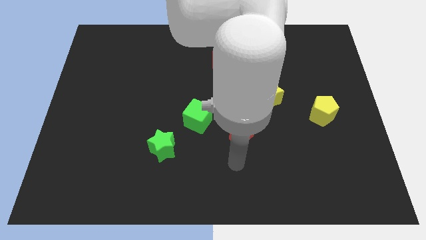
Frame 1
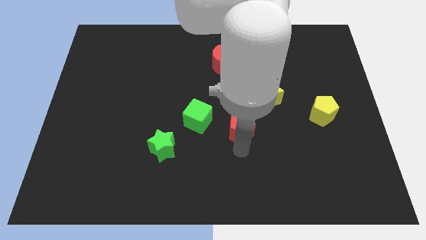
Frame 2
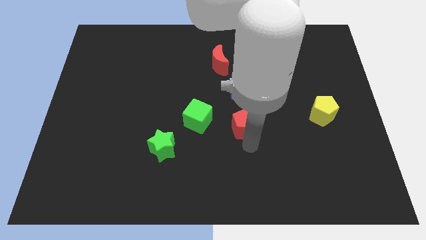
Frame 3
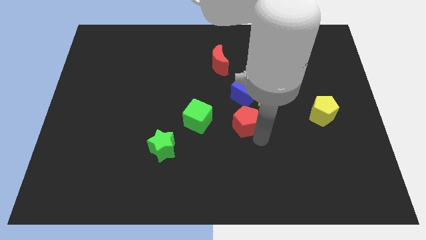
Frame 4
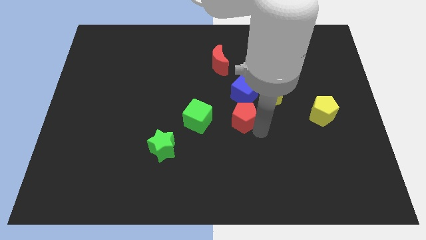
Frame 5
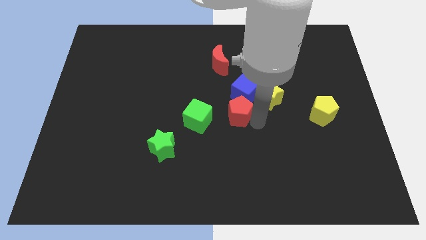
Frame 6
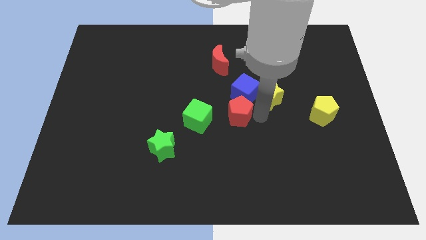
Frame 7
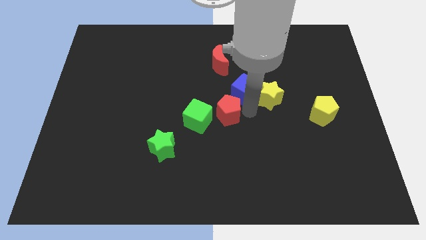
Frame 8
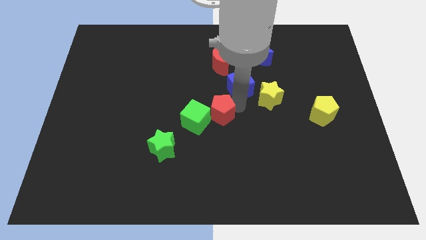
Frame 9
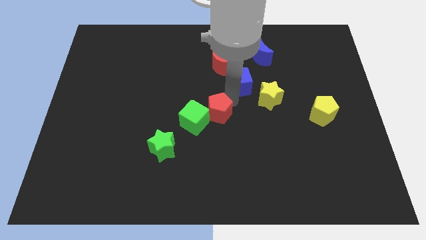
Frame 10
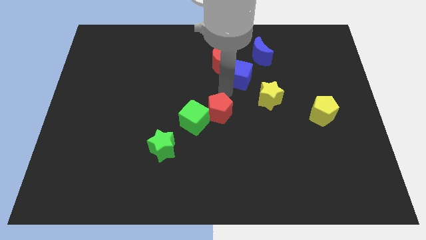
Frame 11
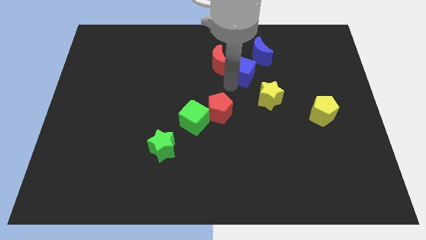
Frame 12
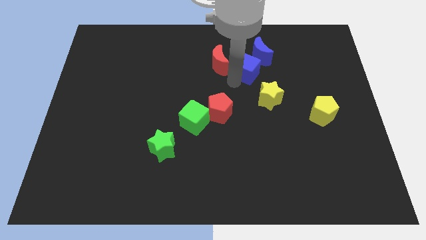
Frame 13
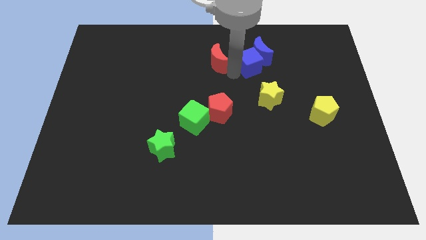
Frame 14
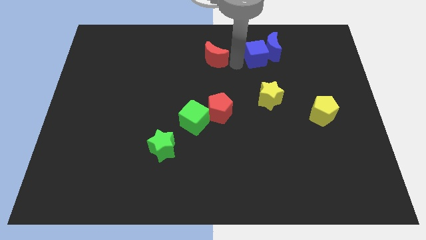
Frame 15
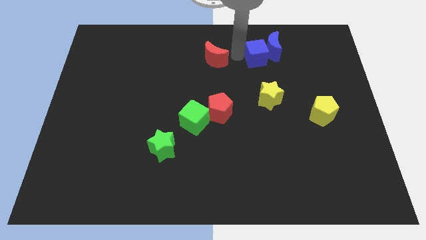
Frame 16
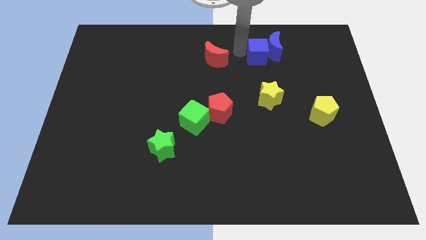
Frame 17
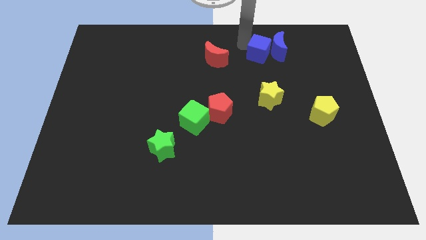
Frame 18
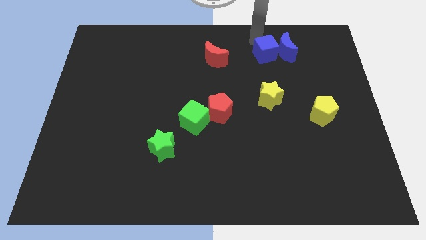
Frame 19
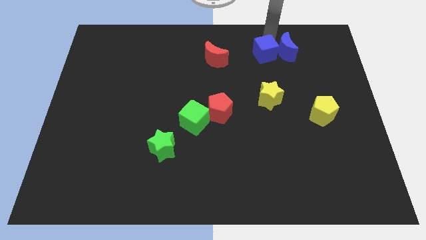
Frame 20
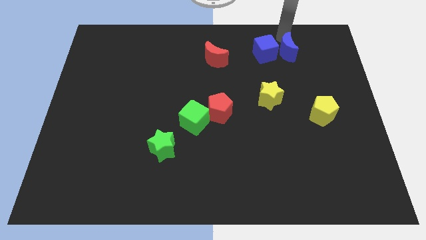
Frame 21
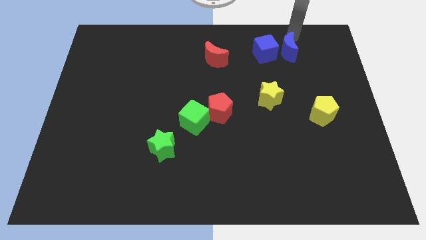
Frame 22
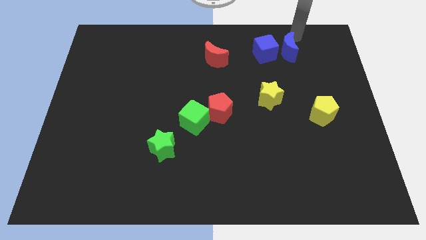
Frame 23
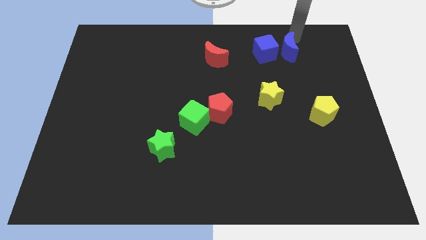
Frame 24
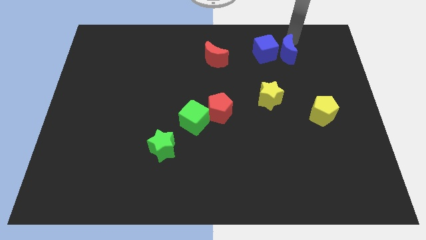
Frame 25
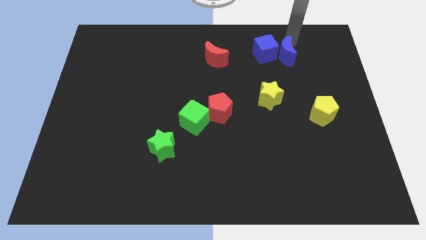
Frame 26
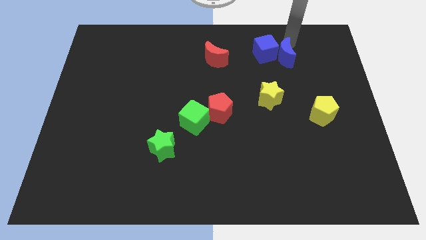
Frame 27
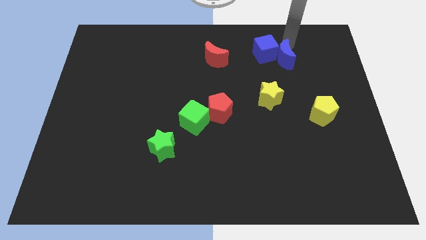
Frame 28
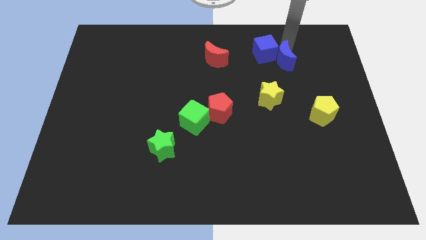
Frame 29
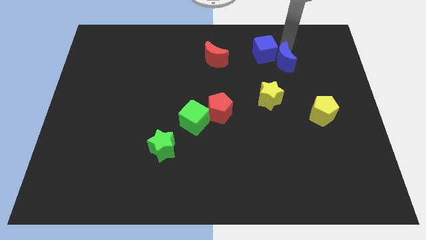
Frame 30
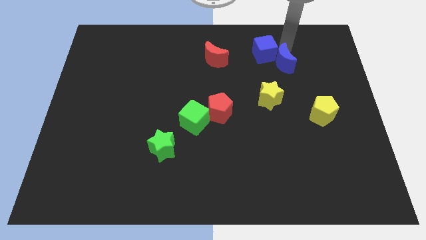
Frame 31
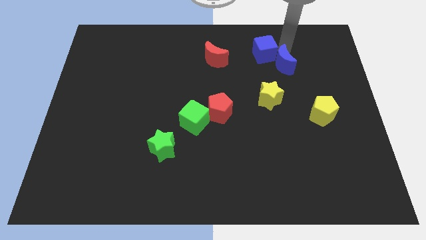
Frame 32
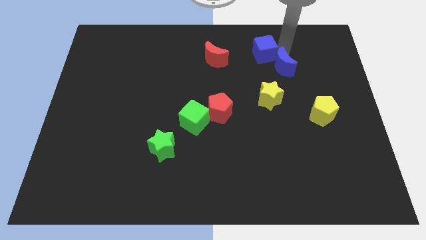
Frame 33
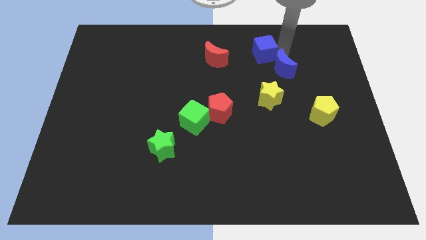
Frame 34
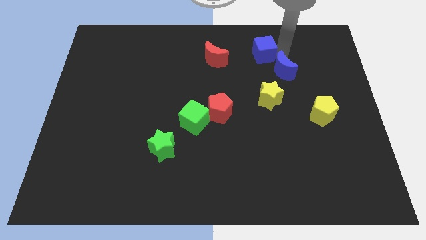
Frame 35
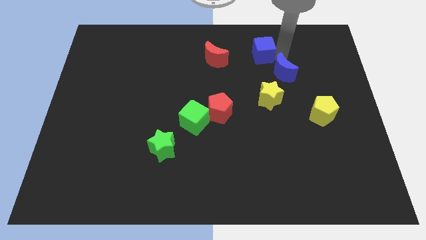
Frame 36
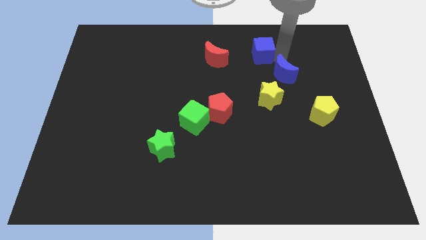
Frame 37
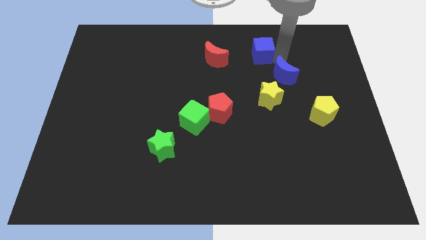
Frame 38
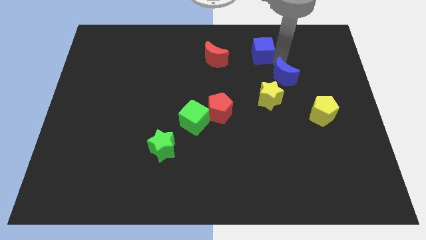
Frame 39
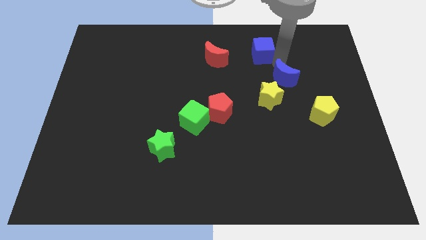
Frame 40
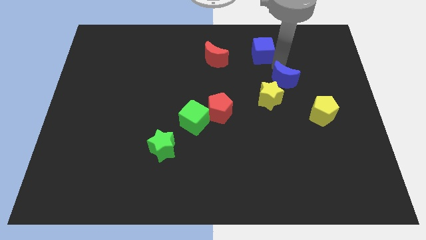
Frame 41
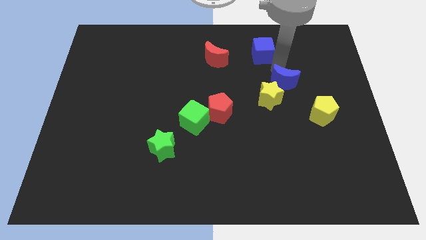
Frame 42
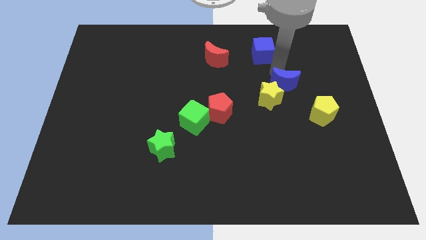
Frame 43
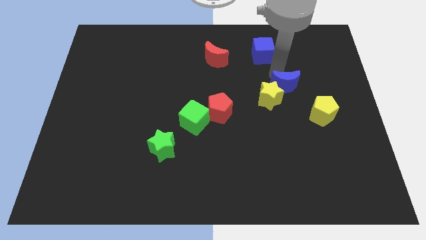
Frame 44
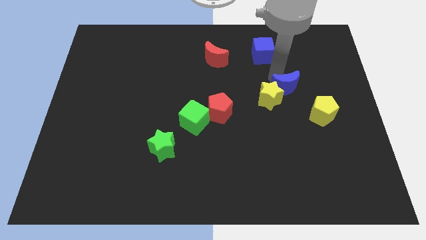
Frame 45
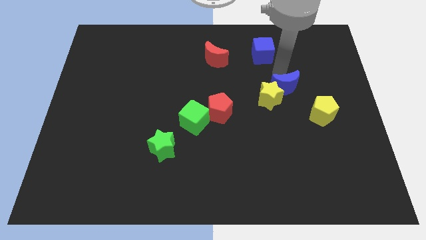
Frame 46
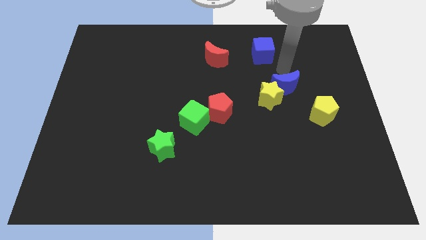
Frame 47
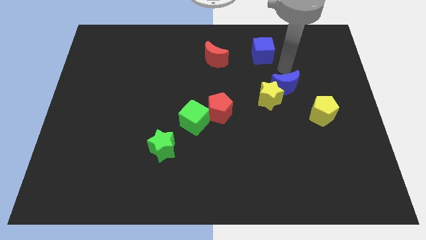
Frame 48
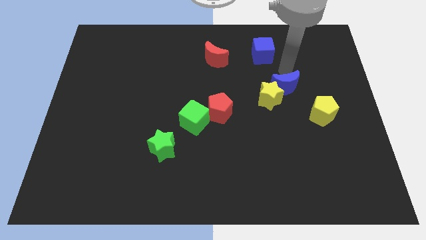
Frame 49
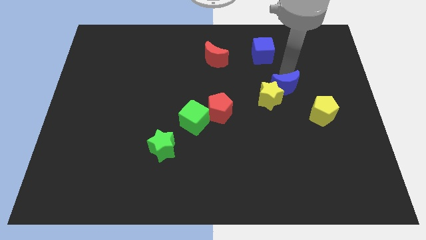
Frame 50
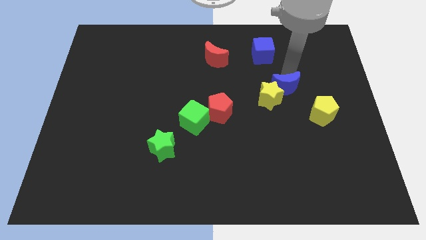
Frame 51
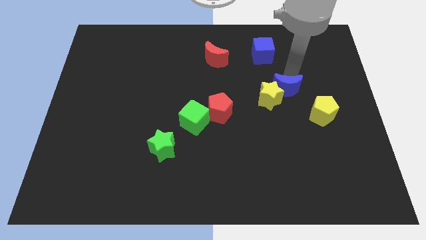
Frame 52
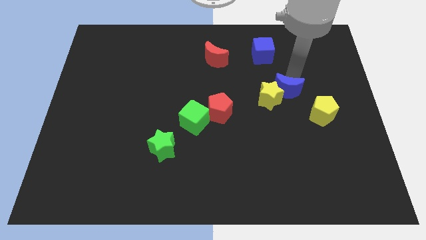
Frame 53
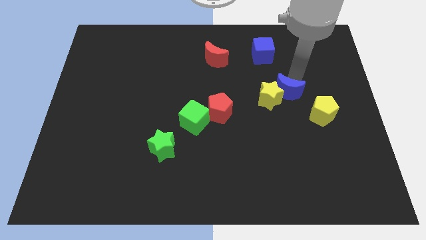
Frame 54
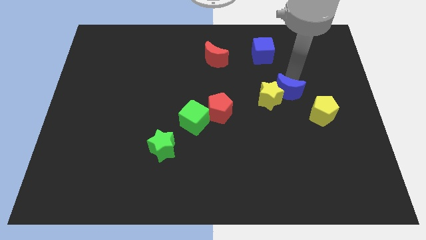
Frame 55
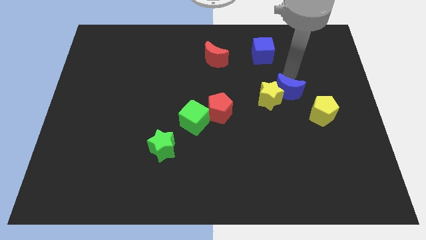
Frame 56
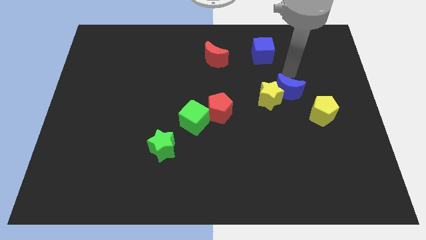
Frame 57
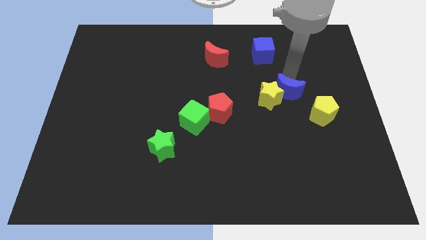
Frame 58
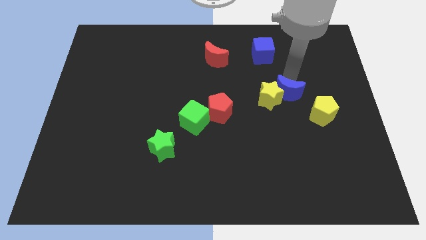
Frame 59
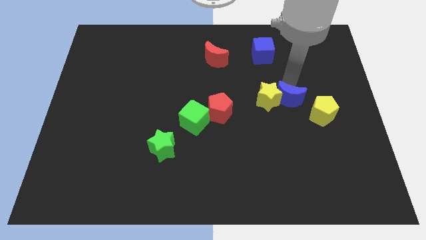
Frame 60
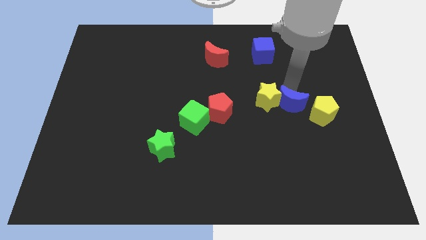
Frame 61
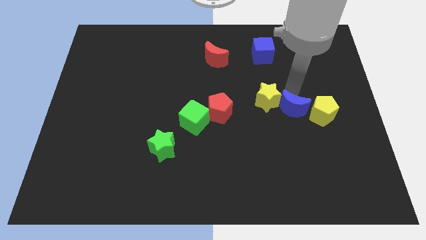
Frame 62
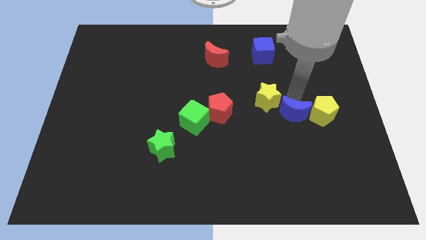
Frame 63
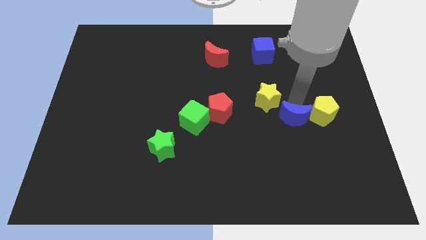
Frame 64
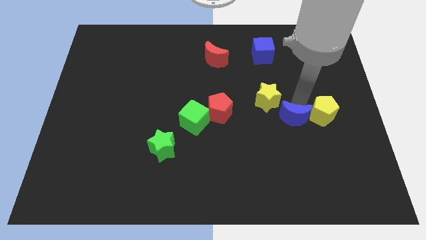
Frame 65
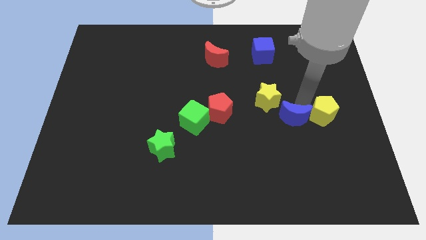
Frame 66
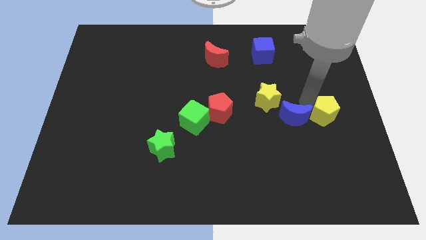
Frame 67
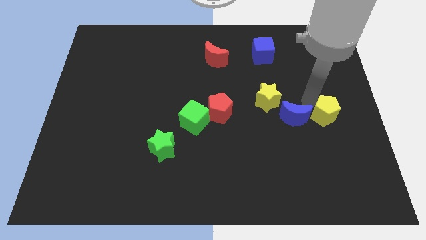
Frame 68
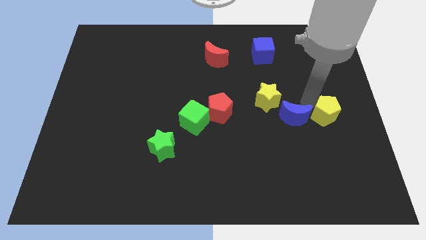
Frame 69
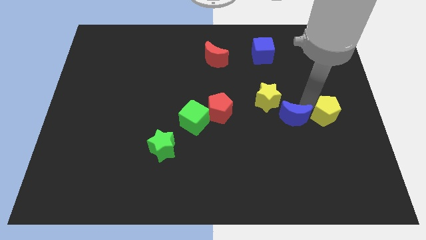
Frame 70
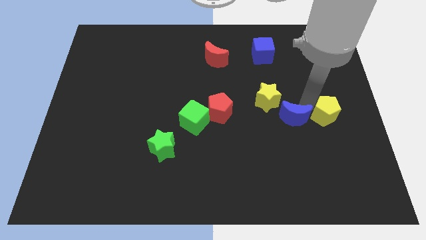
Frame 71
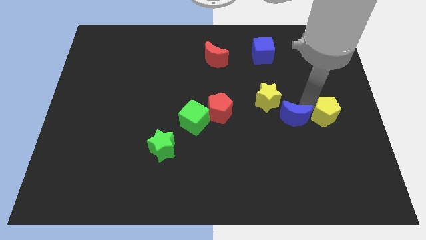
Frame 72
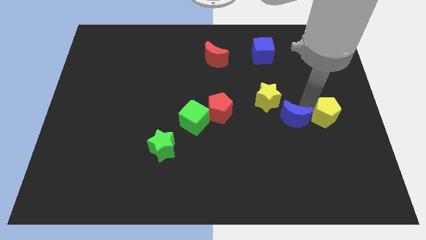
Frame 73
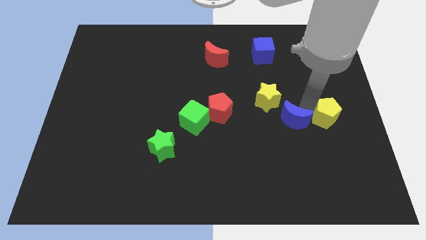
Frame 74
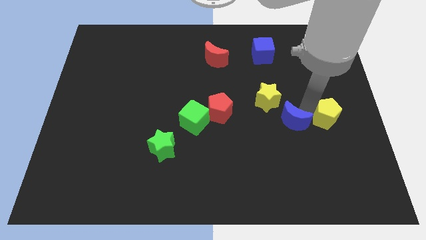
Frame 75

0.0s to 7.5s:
move the blue moon down

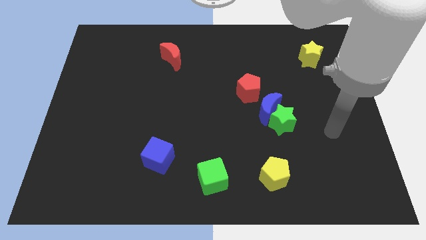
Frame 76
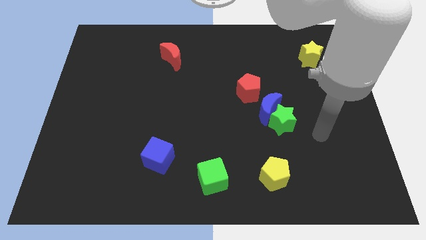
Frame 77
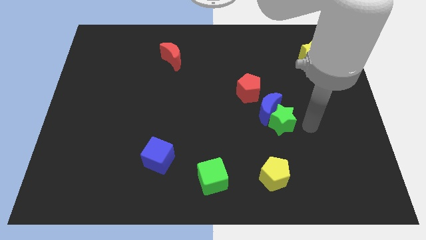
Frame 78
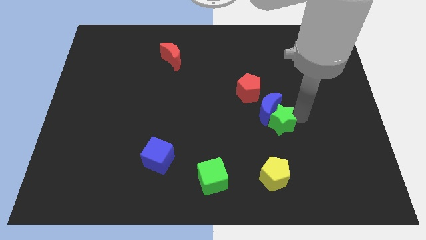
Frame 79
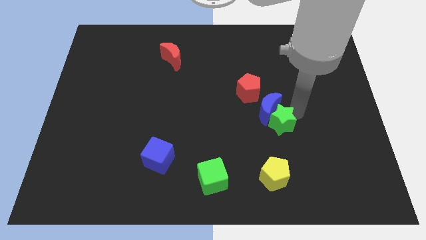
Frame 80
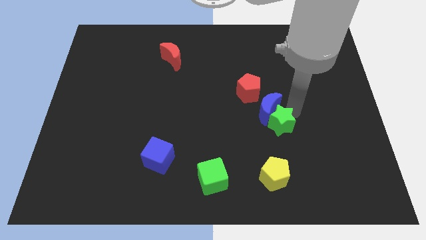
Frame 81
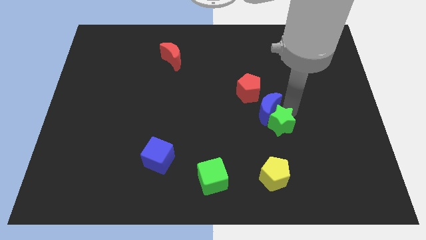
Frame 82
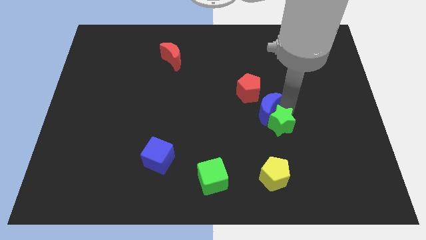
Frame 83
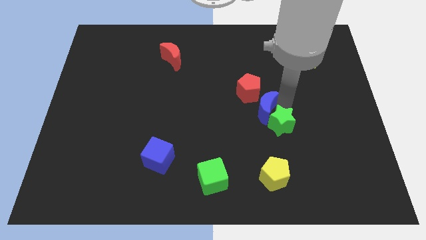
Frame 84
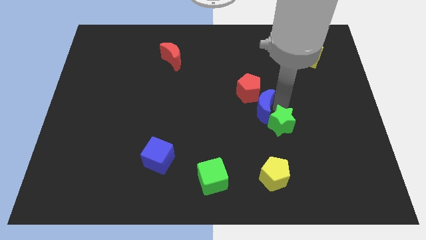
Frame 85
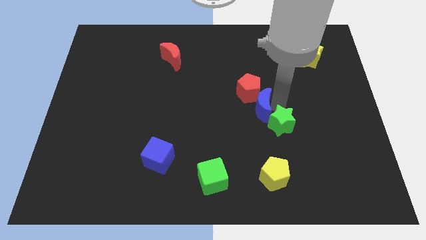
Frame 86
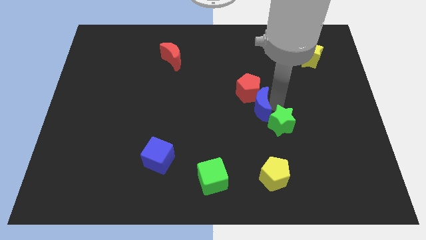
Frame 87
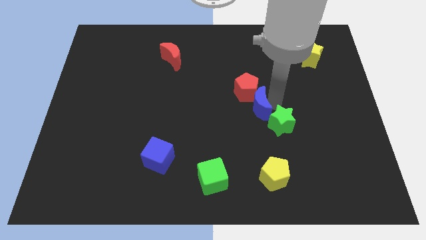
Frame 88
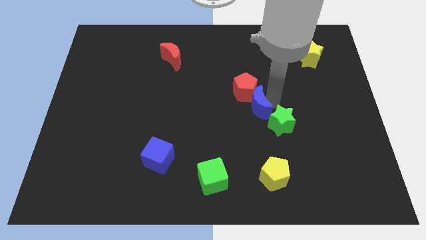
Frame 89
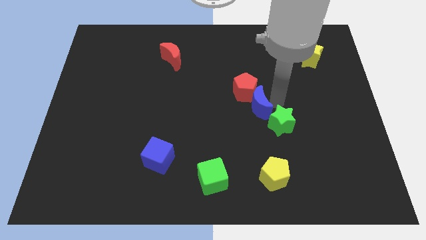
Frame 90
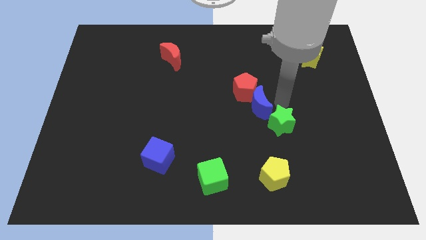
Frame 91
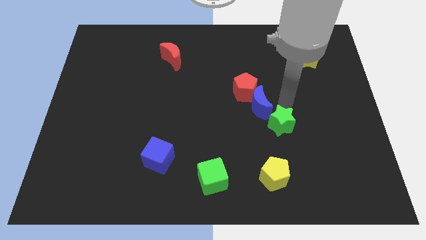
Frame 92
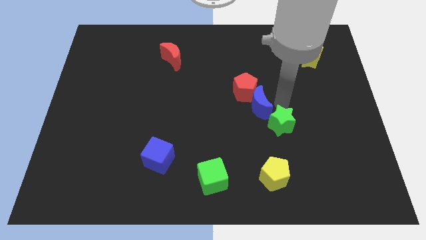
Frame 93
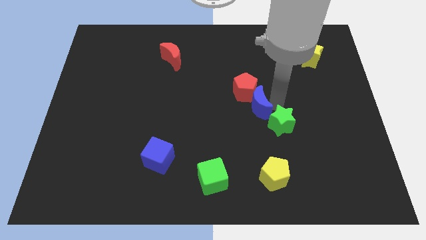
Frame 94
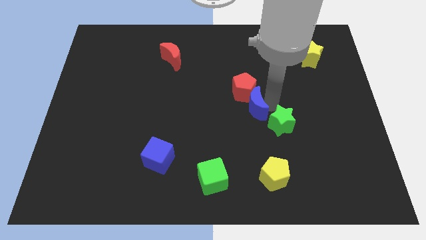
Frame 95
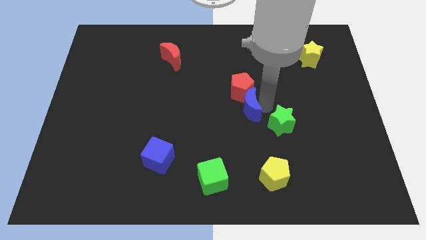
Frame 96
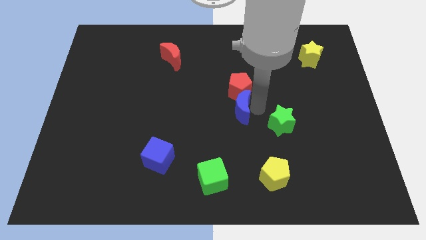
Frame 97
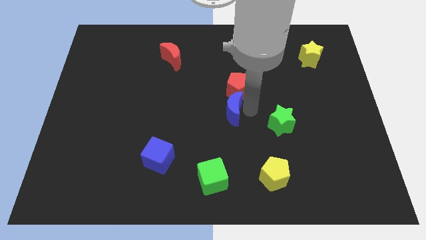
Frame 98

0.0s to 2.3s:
push the blue moon a little bit left
